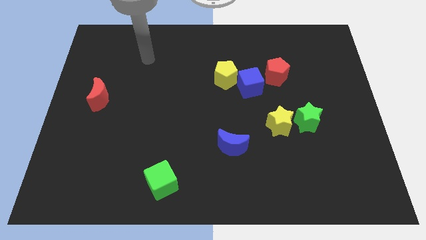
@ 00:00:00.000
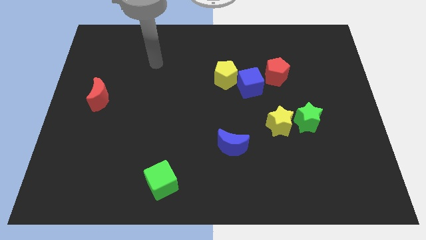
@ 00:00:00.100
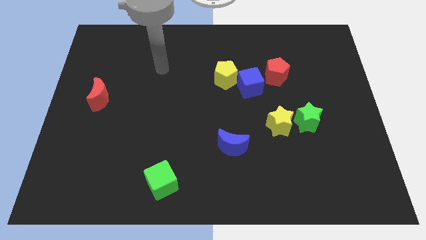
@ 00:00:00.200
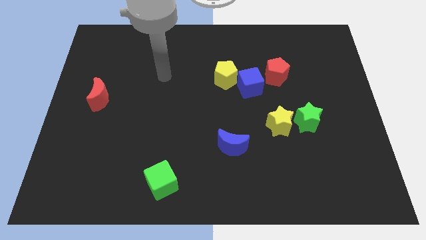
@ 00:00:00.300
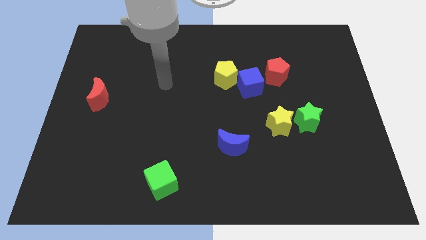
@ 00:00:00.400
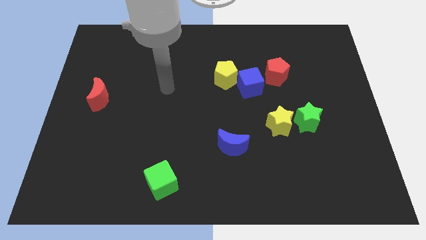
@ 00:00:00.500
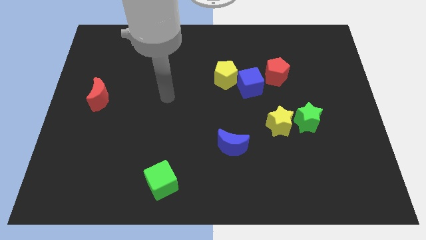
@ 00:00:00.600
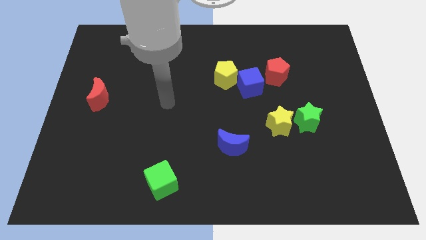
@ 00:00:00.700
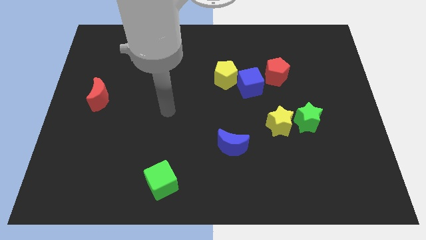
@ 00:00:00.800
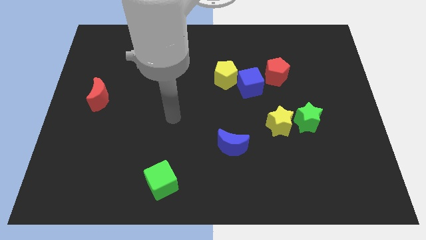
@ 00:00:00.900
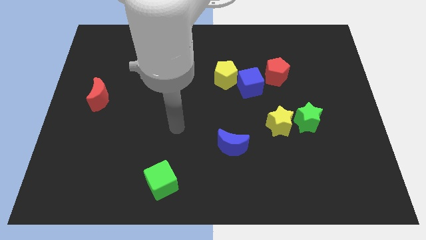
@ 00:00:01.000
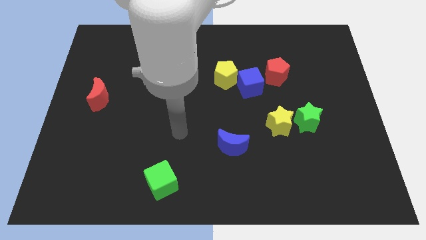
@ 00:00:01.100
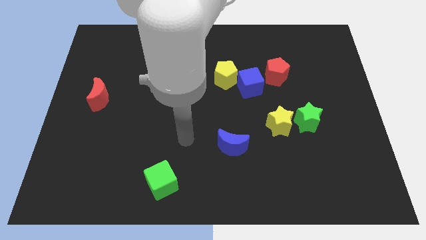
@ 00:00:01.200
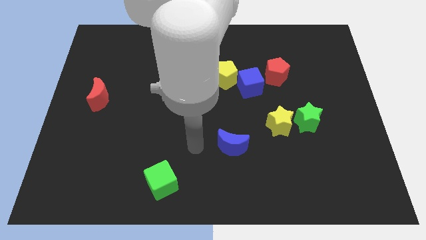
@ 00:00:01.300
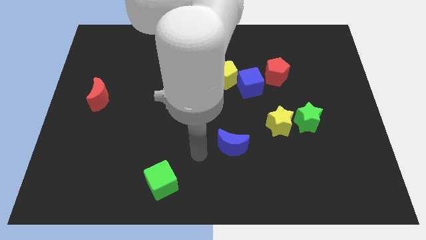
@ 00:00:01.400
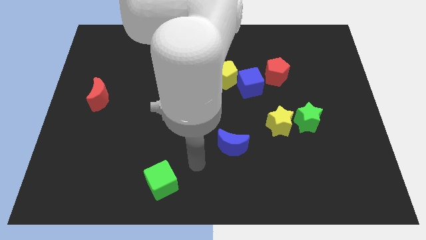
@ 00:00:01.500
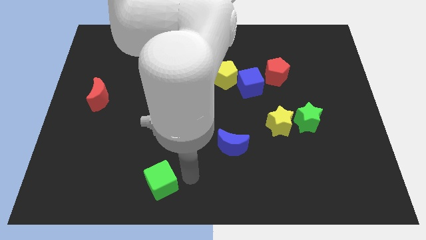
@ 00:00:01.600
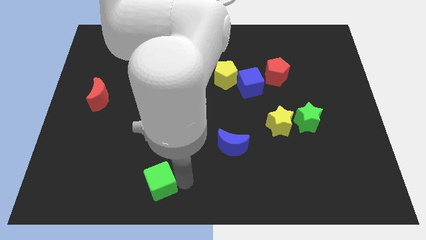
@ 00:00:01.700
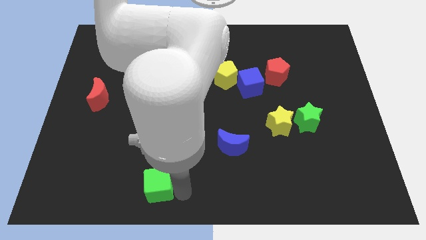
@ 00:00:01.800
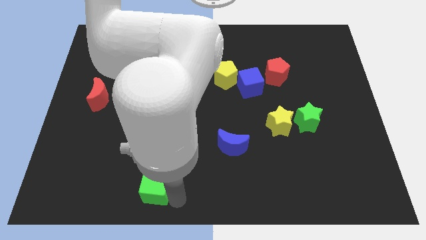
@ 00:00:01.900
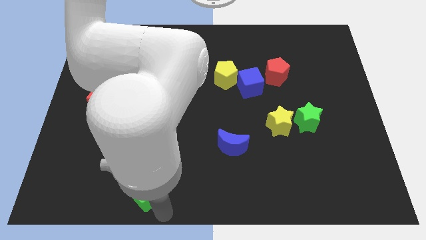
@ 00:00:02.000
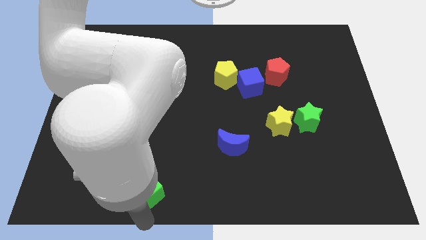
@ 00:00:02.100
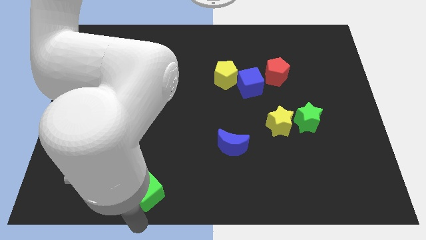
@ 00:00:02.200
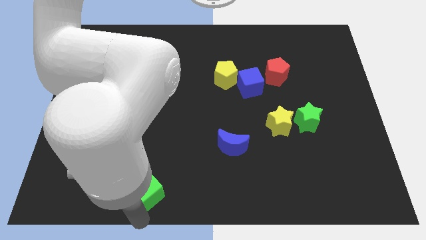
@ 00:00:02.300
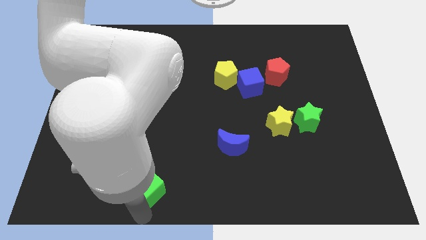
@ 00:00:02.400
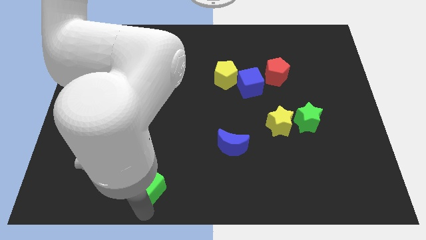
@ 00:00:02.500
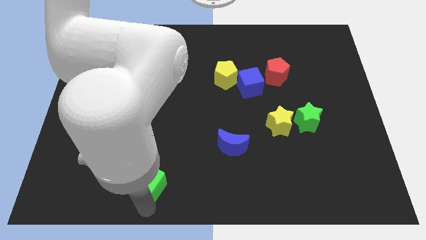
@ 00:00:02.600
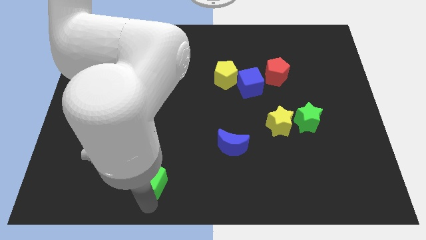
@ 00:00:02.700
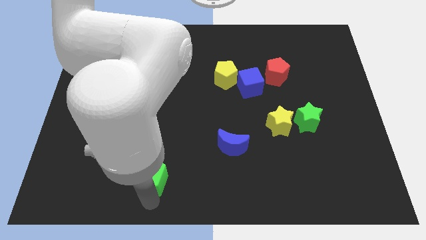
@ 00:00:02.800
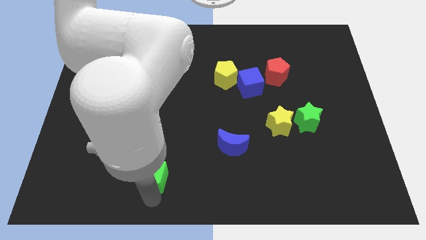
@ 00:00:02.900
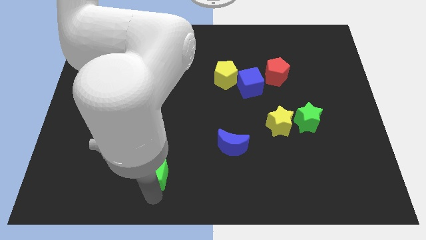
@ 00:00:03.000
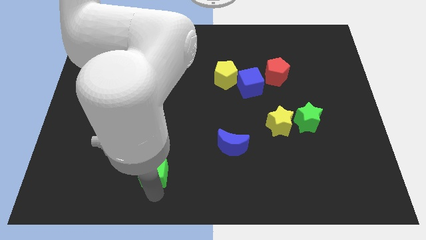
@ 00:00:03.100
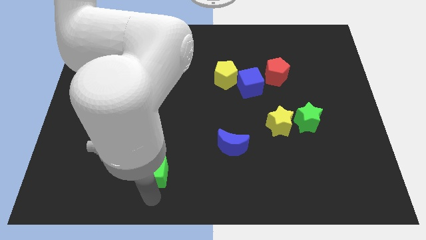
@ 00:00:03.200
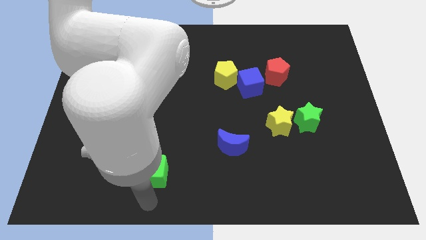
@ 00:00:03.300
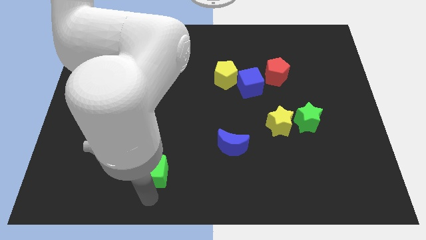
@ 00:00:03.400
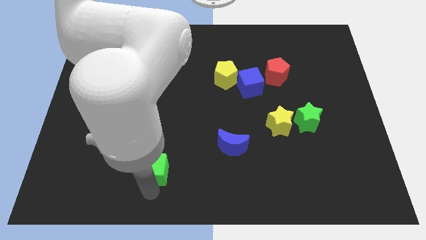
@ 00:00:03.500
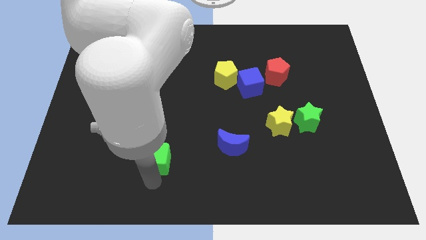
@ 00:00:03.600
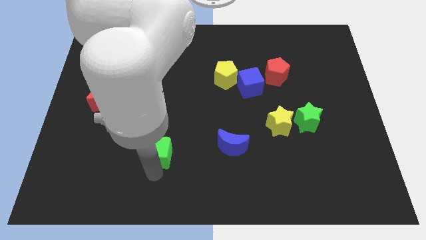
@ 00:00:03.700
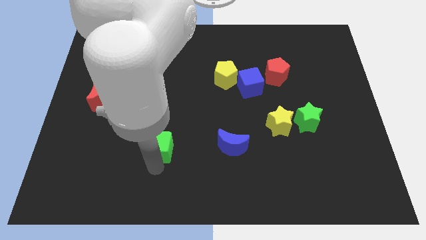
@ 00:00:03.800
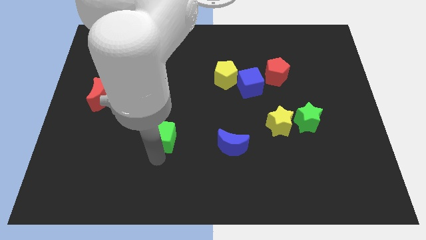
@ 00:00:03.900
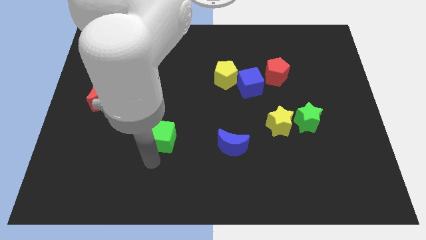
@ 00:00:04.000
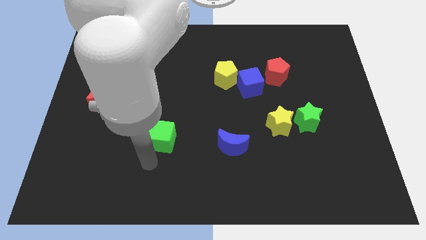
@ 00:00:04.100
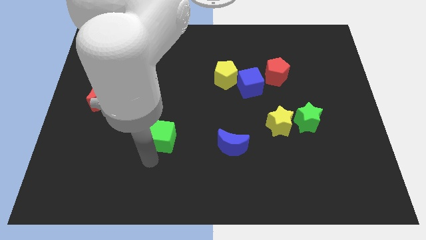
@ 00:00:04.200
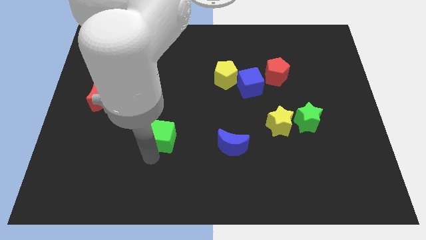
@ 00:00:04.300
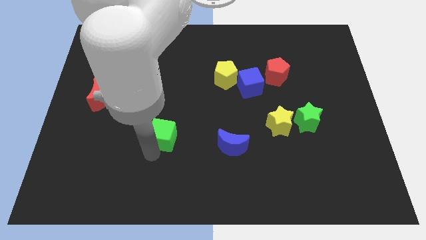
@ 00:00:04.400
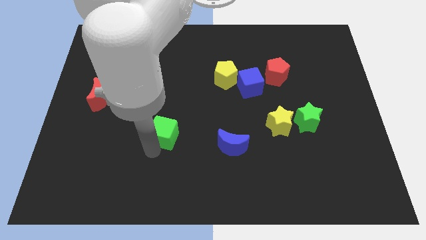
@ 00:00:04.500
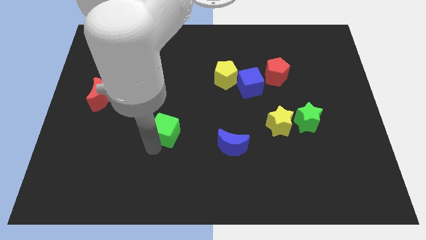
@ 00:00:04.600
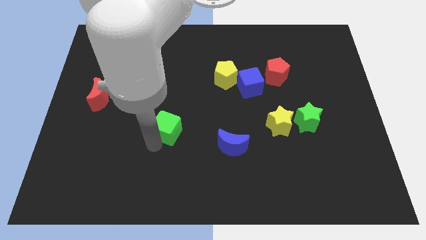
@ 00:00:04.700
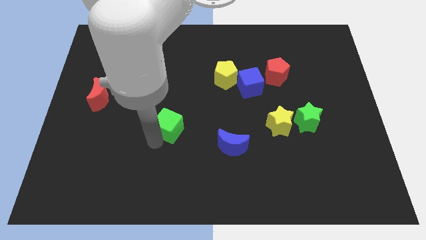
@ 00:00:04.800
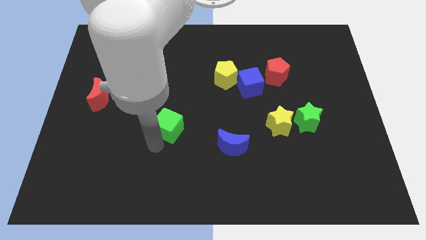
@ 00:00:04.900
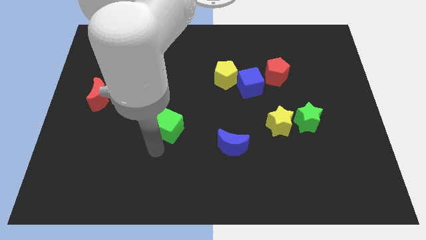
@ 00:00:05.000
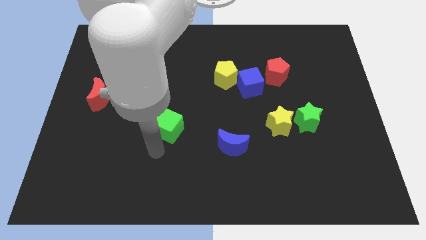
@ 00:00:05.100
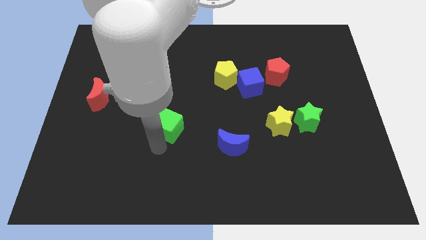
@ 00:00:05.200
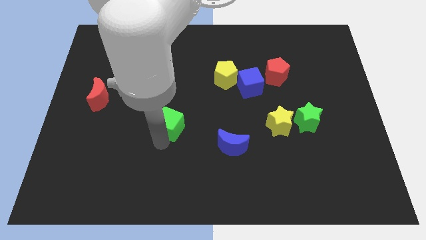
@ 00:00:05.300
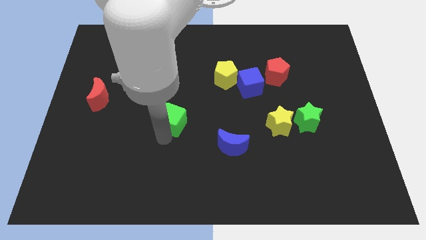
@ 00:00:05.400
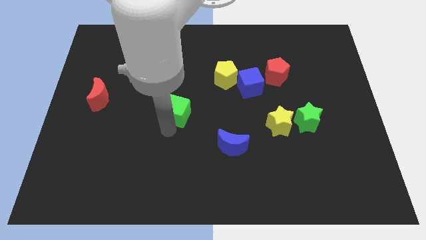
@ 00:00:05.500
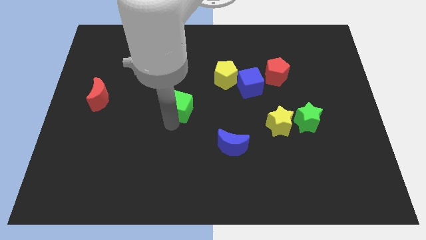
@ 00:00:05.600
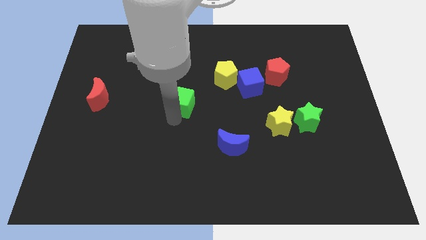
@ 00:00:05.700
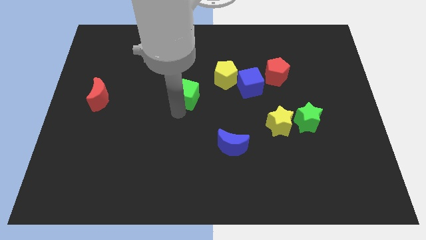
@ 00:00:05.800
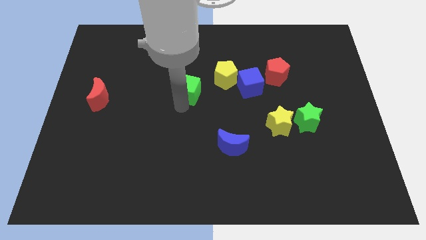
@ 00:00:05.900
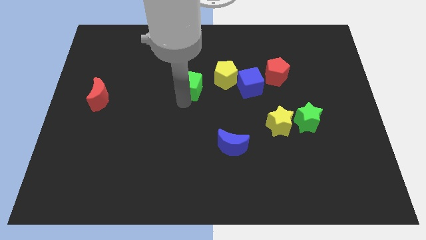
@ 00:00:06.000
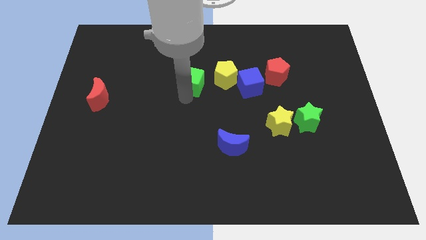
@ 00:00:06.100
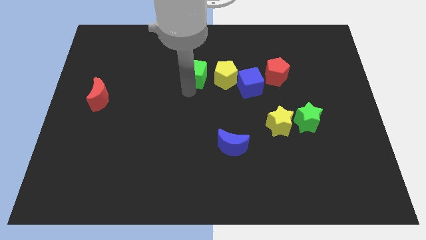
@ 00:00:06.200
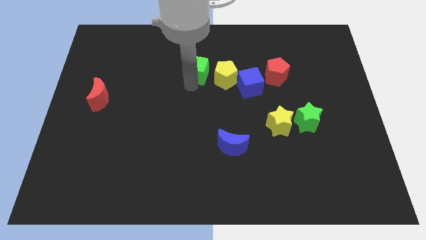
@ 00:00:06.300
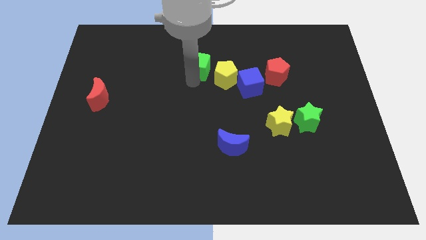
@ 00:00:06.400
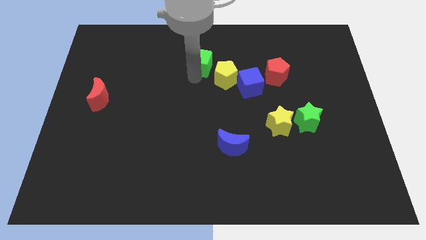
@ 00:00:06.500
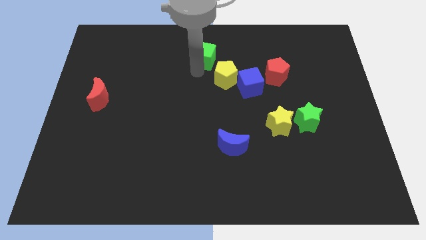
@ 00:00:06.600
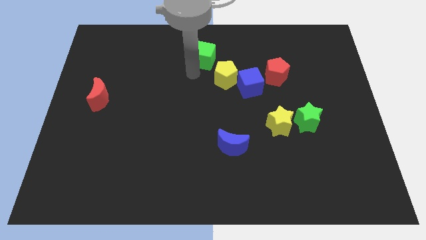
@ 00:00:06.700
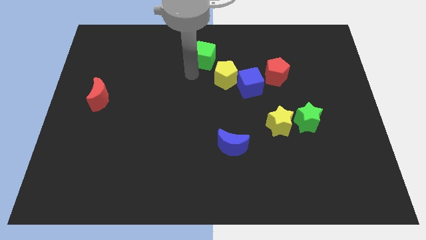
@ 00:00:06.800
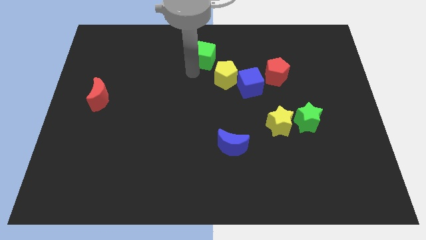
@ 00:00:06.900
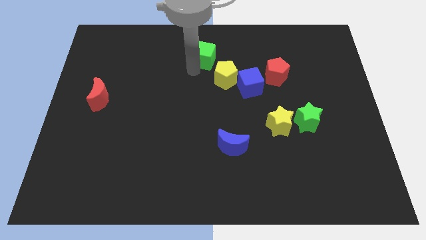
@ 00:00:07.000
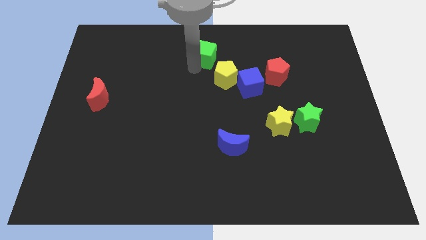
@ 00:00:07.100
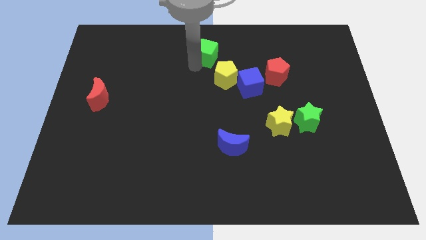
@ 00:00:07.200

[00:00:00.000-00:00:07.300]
slide the green cube to the top
